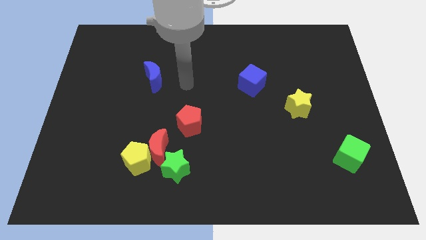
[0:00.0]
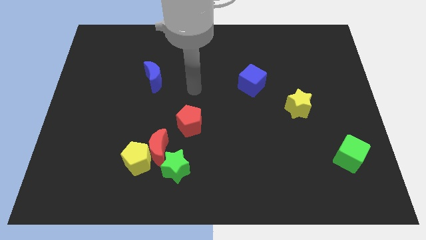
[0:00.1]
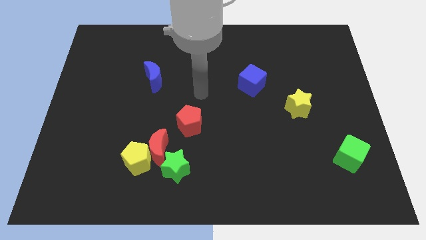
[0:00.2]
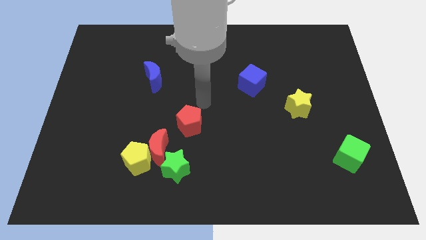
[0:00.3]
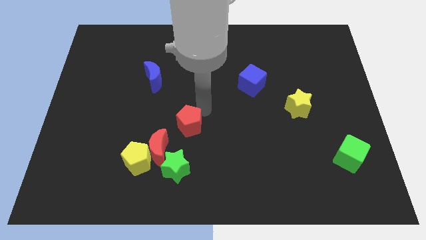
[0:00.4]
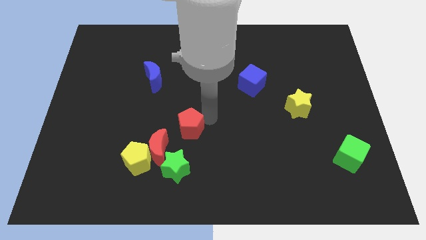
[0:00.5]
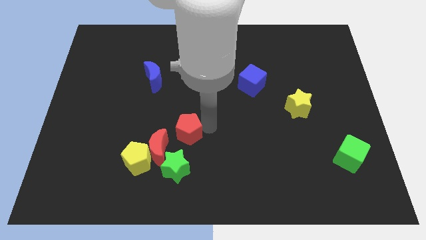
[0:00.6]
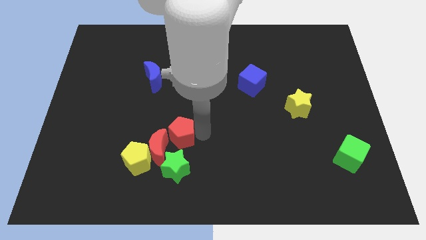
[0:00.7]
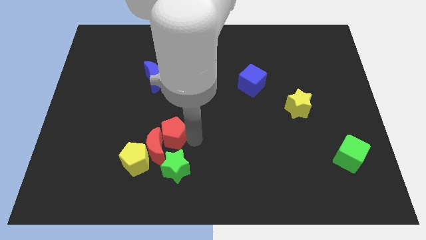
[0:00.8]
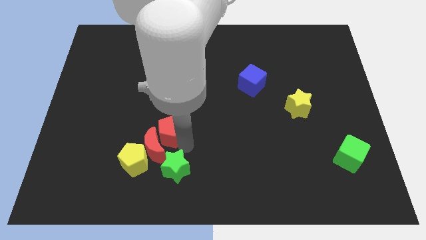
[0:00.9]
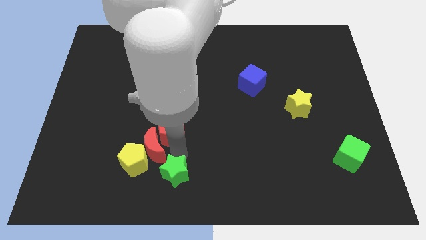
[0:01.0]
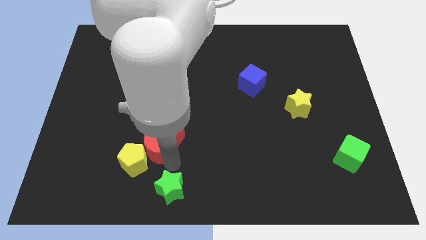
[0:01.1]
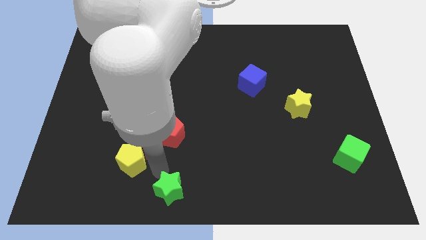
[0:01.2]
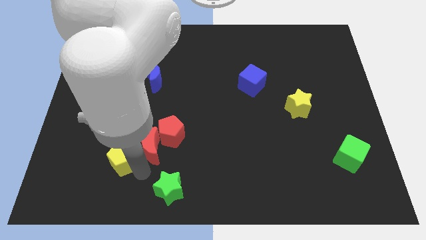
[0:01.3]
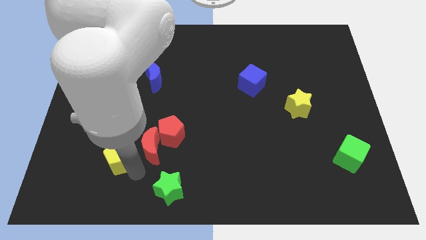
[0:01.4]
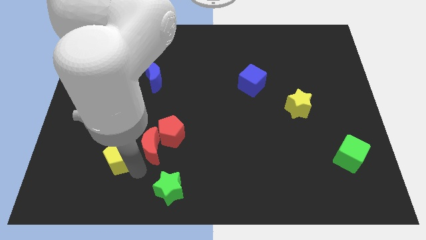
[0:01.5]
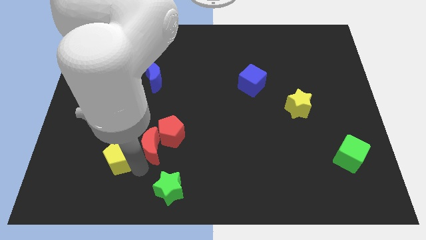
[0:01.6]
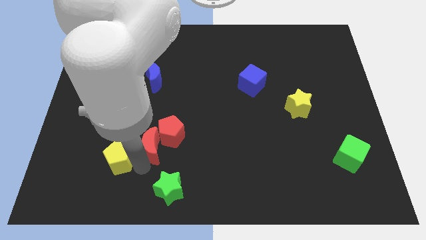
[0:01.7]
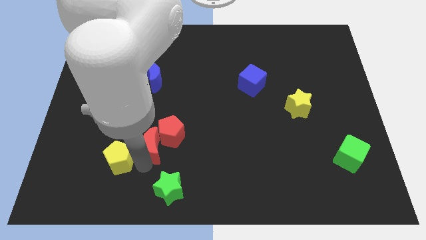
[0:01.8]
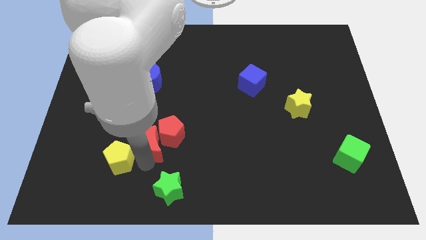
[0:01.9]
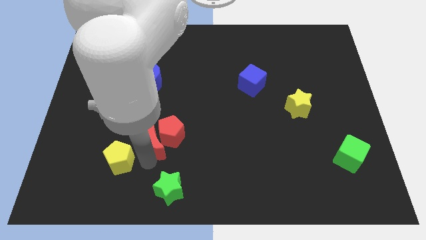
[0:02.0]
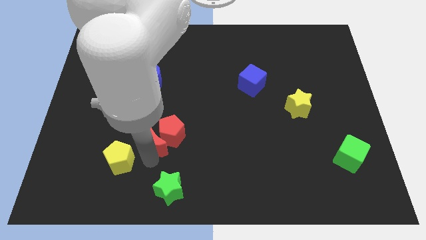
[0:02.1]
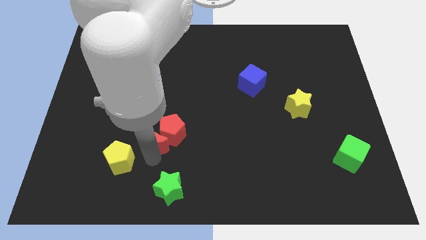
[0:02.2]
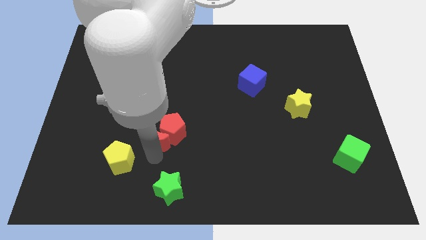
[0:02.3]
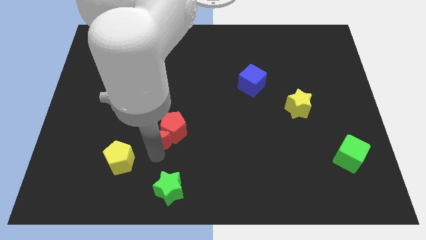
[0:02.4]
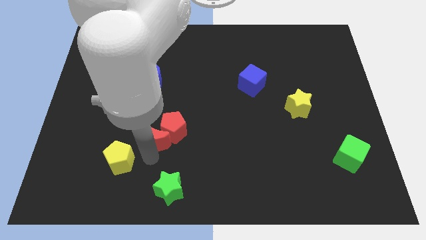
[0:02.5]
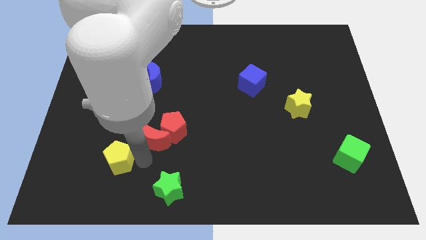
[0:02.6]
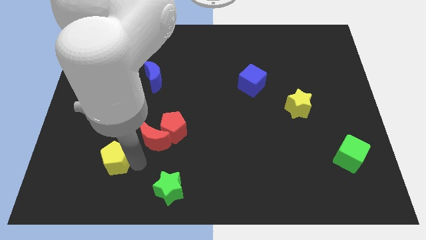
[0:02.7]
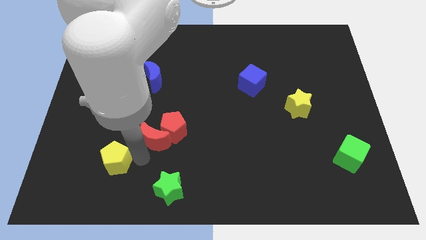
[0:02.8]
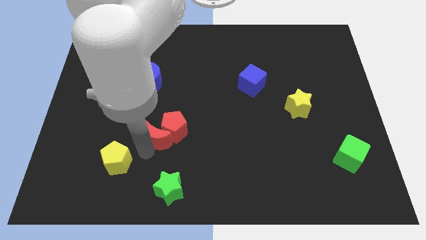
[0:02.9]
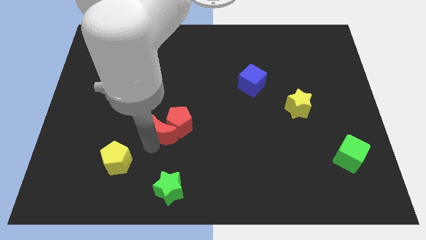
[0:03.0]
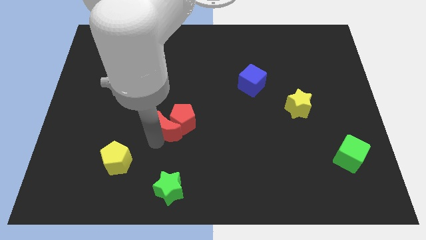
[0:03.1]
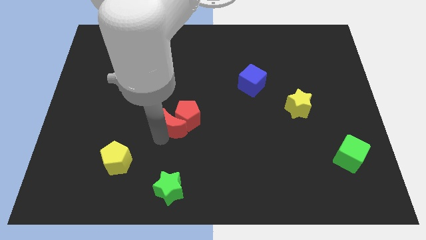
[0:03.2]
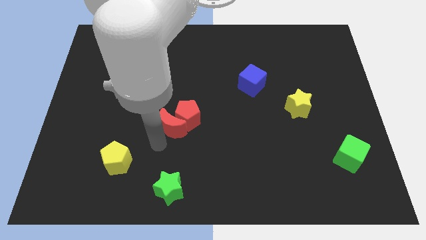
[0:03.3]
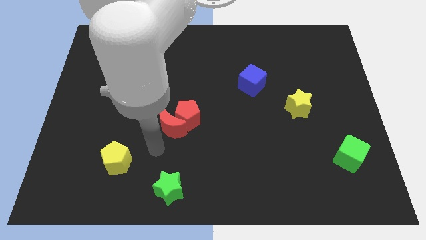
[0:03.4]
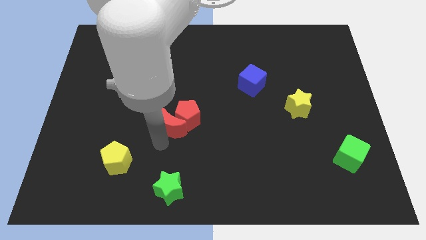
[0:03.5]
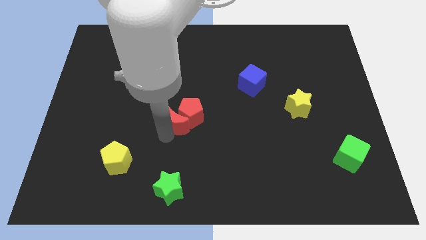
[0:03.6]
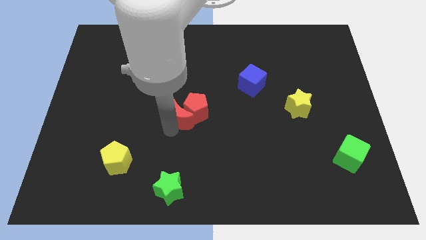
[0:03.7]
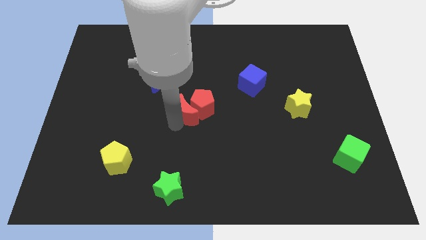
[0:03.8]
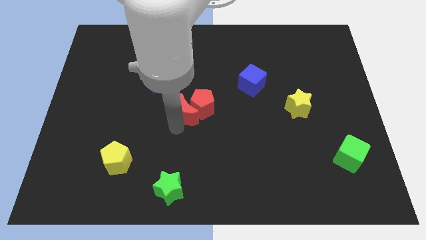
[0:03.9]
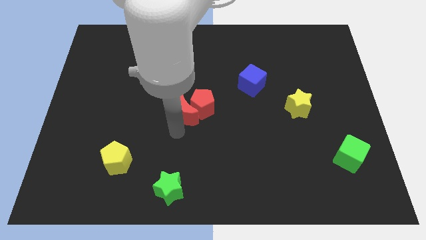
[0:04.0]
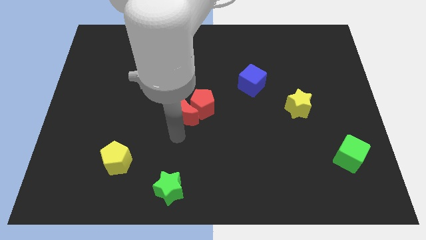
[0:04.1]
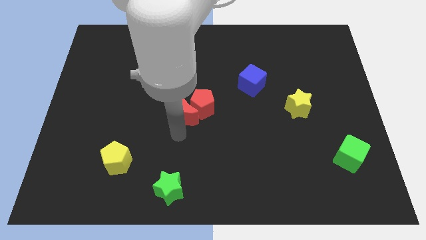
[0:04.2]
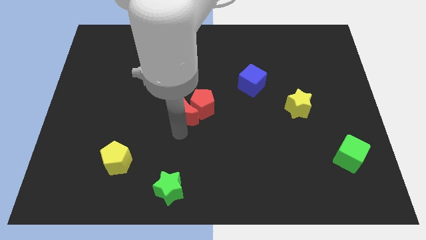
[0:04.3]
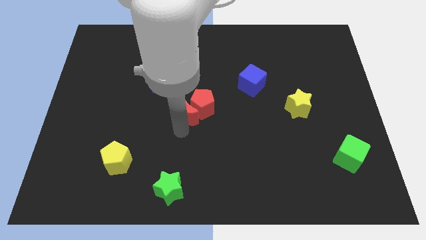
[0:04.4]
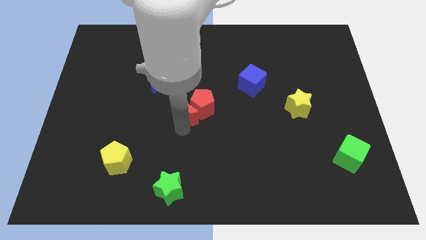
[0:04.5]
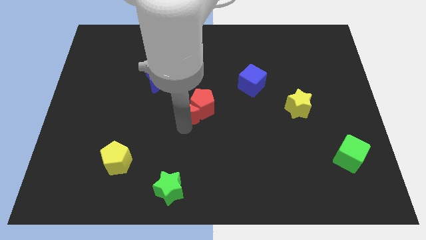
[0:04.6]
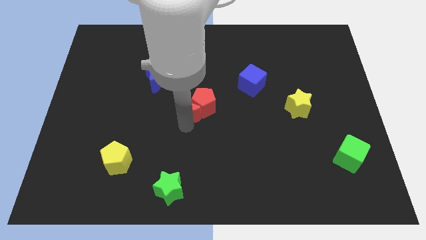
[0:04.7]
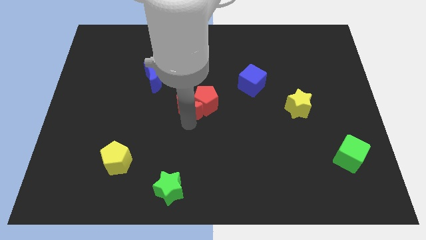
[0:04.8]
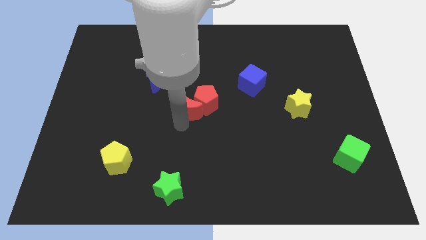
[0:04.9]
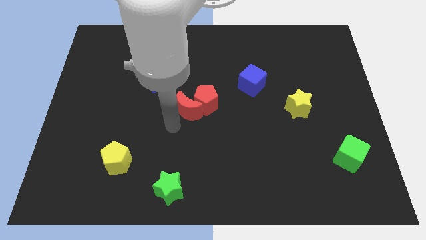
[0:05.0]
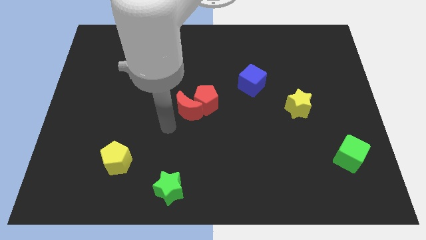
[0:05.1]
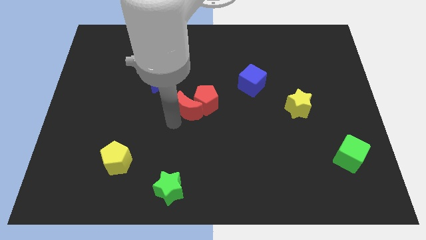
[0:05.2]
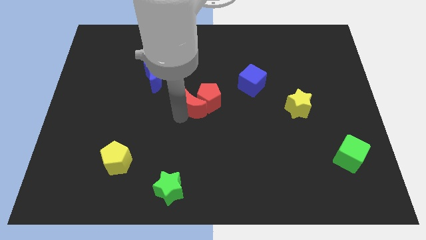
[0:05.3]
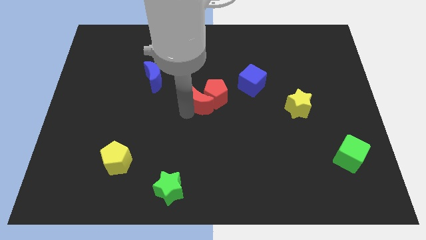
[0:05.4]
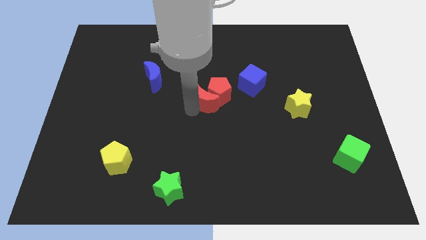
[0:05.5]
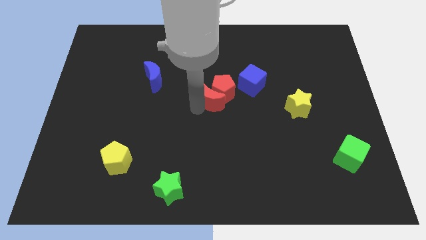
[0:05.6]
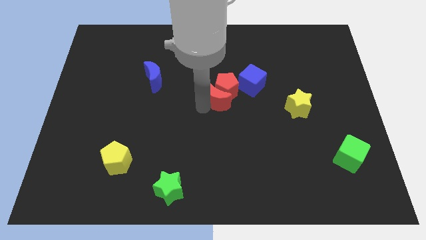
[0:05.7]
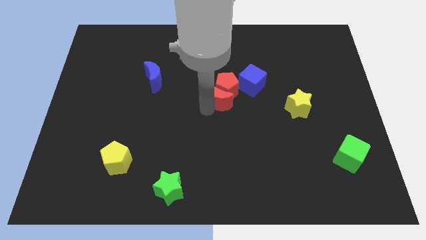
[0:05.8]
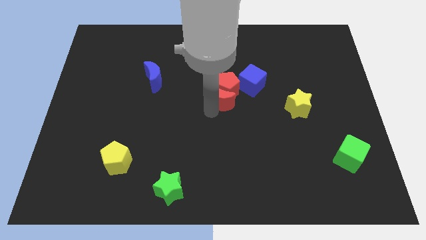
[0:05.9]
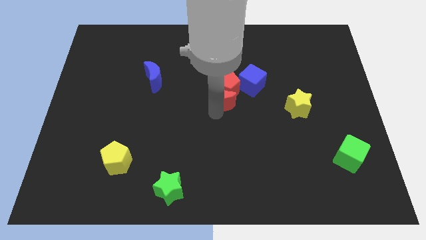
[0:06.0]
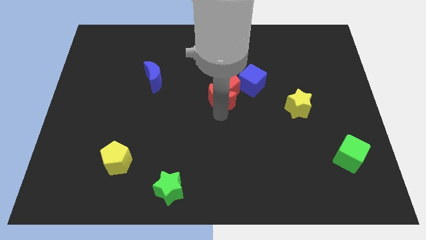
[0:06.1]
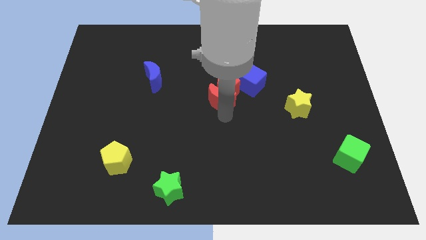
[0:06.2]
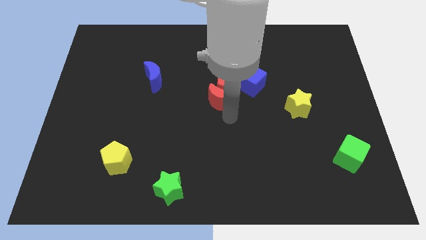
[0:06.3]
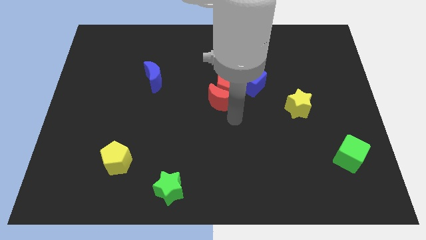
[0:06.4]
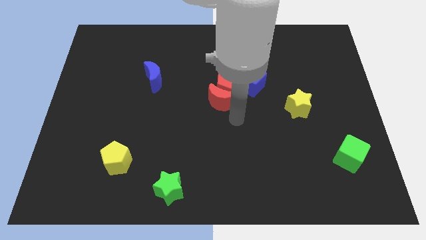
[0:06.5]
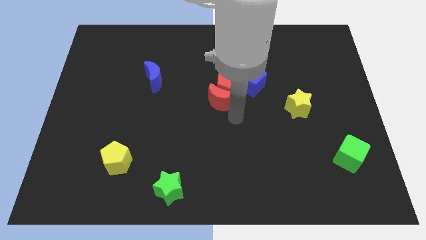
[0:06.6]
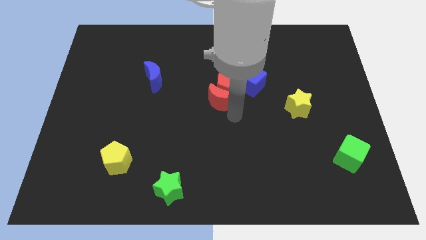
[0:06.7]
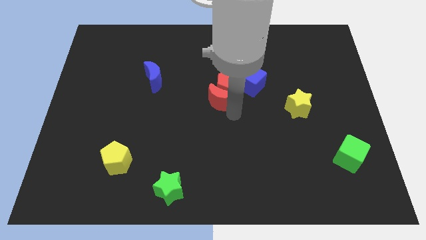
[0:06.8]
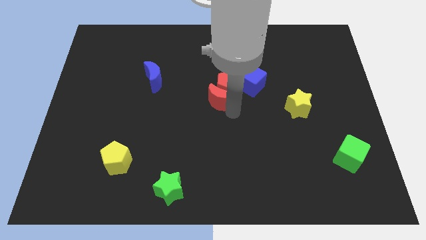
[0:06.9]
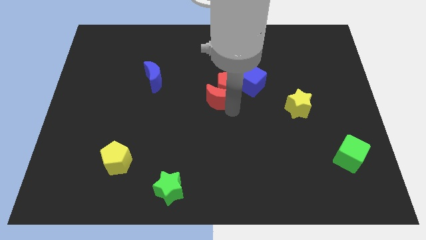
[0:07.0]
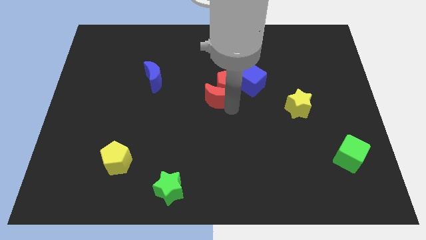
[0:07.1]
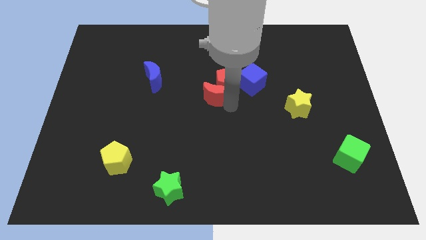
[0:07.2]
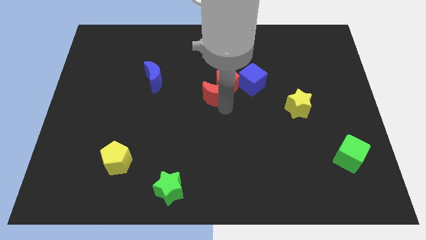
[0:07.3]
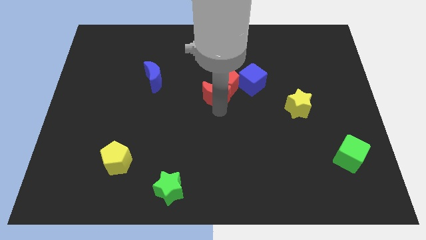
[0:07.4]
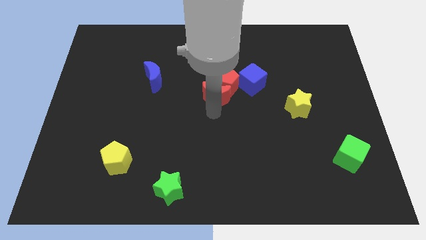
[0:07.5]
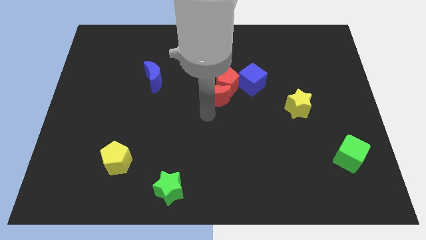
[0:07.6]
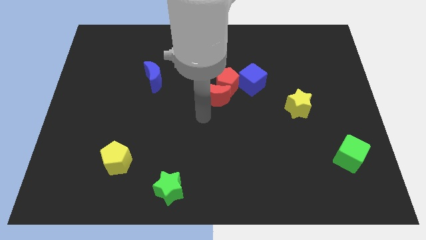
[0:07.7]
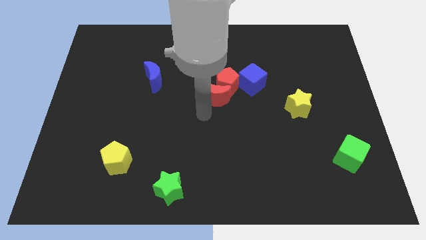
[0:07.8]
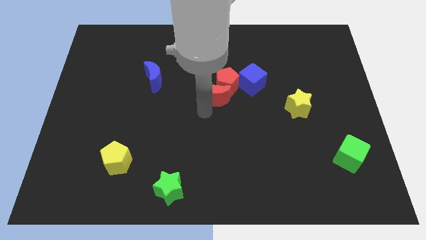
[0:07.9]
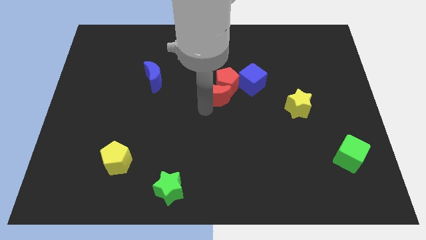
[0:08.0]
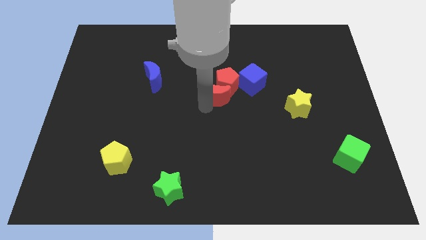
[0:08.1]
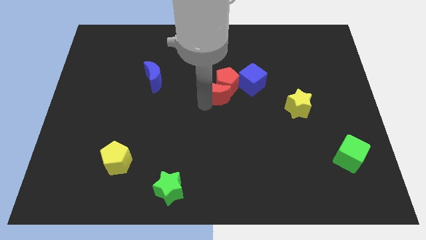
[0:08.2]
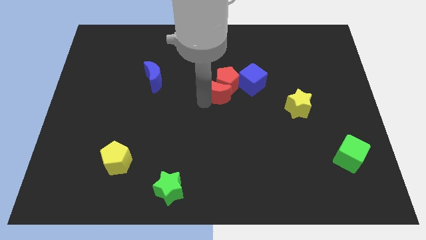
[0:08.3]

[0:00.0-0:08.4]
slide the red moon up and then to the right

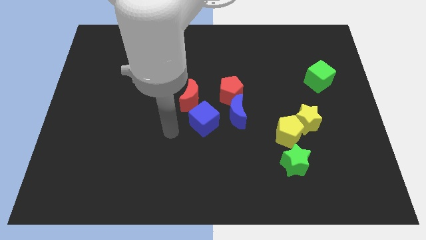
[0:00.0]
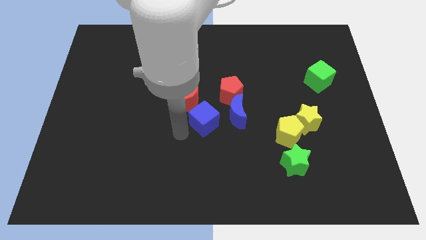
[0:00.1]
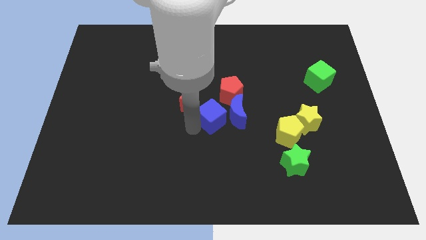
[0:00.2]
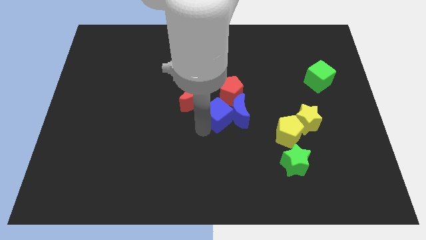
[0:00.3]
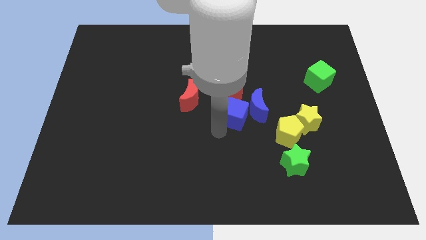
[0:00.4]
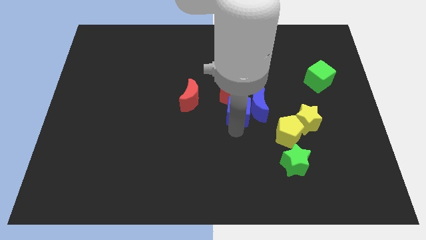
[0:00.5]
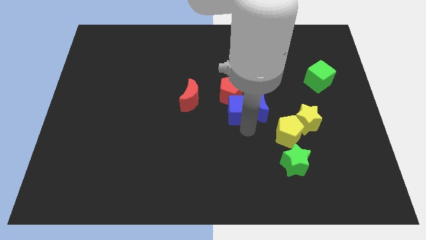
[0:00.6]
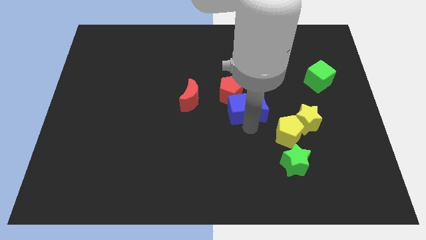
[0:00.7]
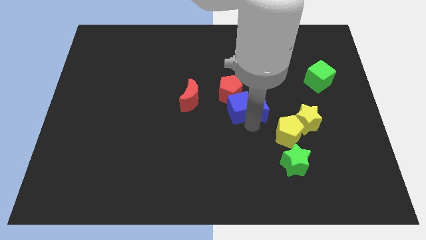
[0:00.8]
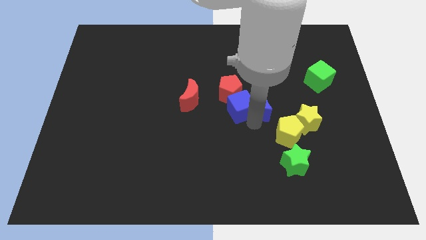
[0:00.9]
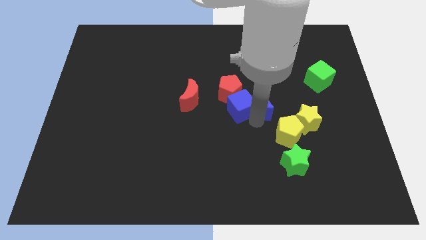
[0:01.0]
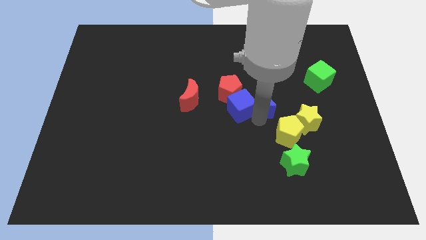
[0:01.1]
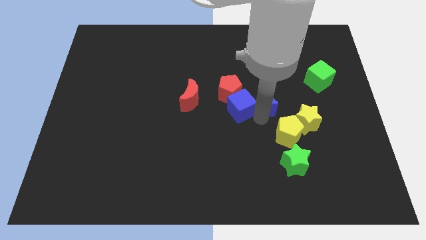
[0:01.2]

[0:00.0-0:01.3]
move the blue moon diagonally up and to the right a bit
